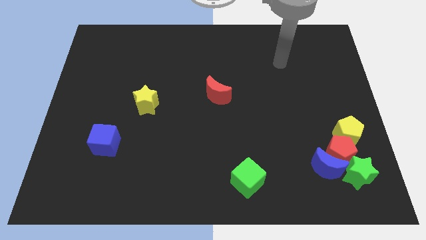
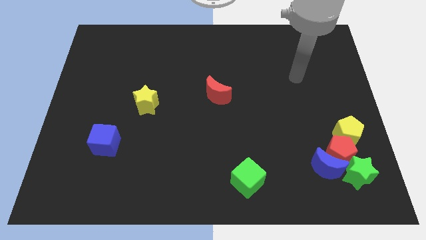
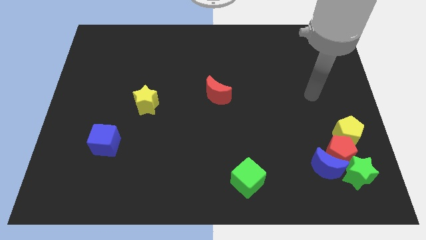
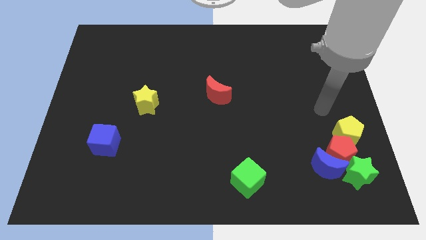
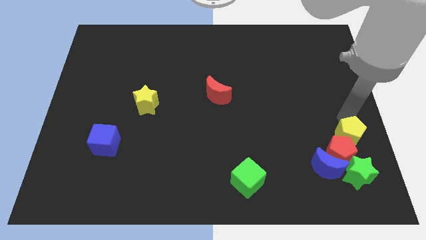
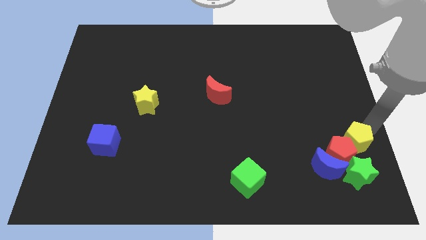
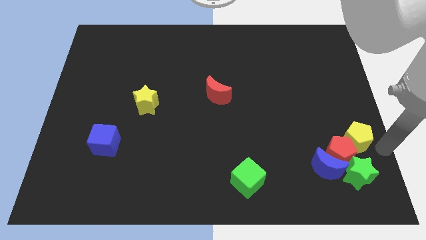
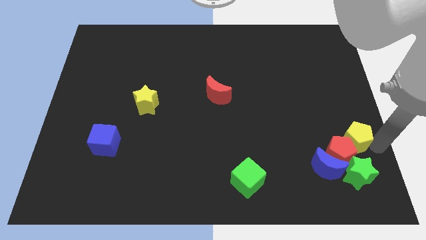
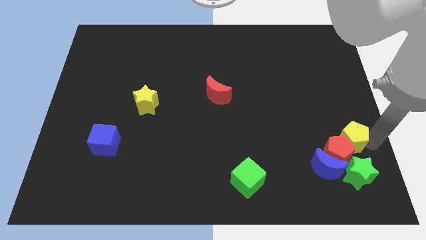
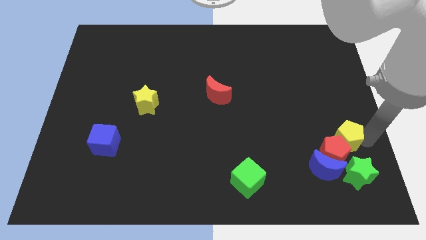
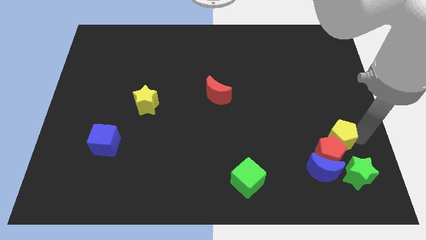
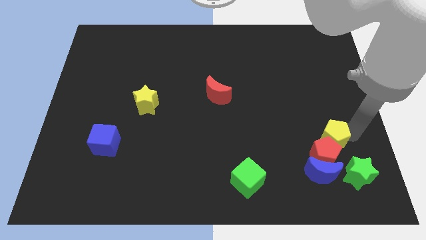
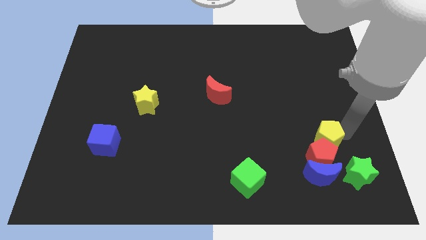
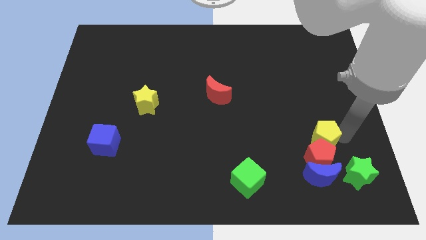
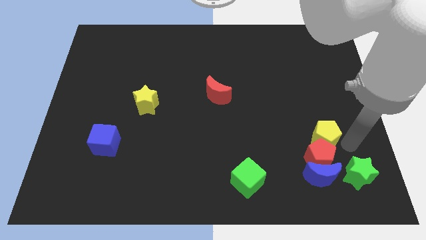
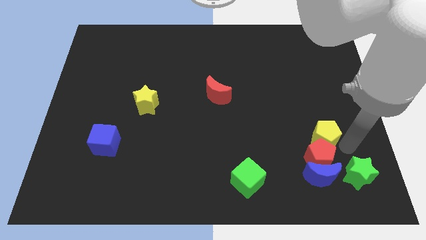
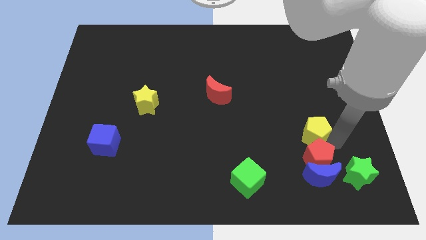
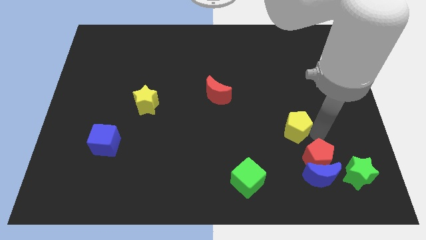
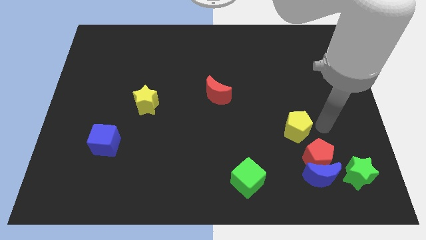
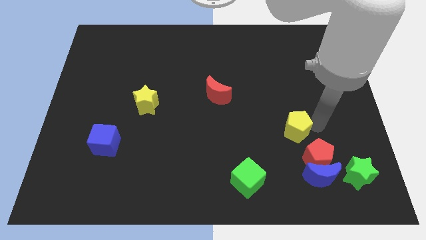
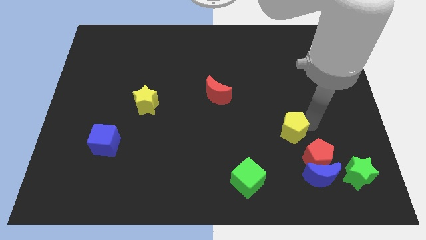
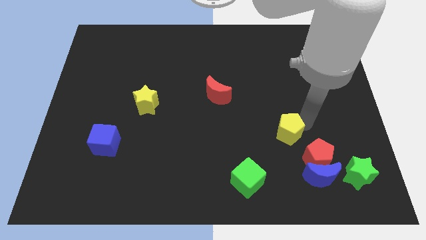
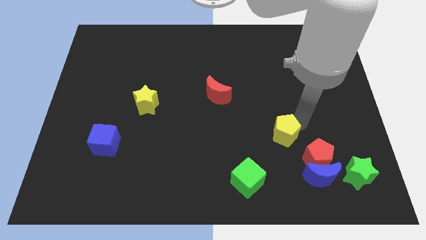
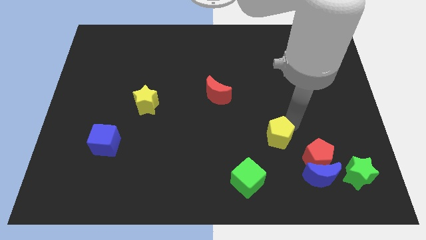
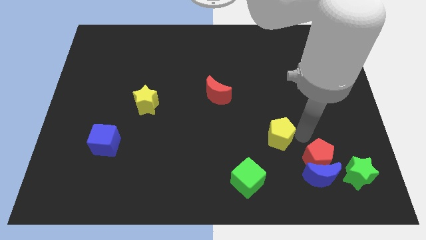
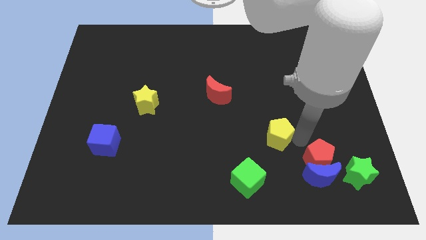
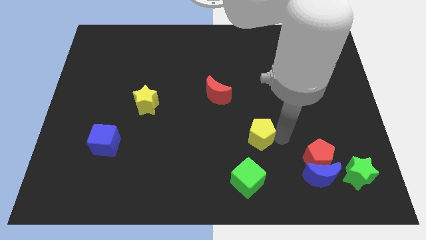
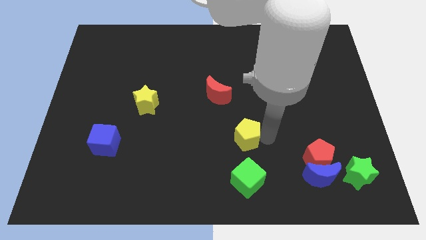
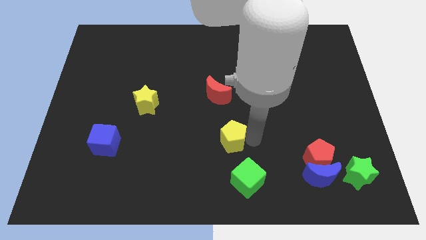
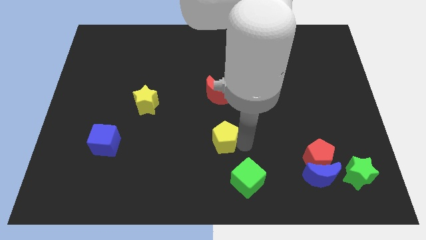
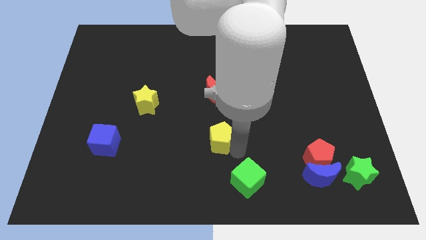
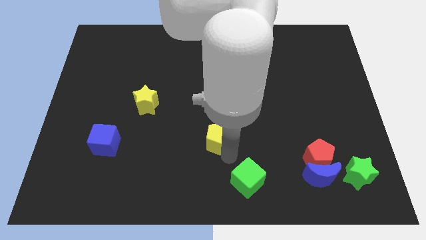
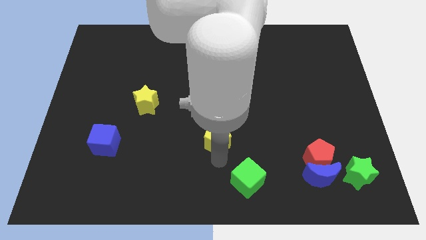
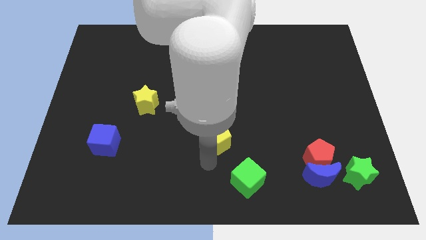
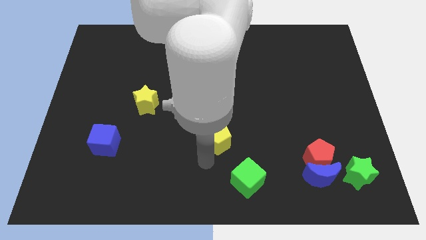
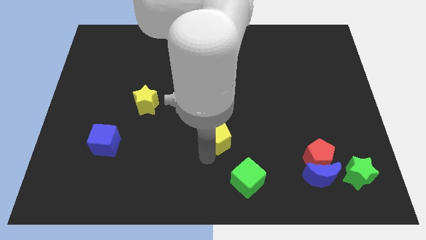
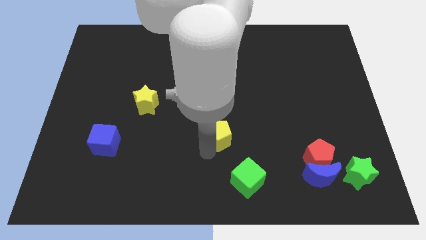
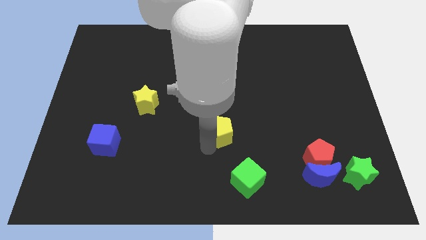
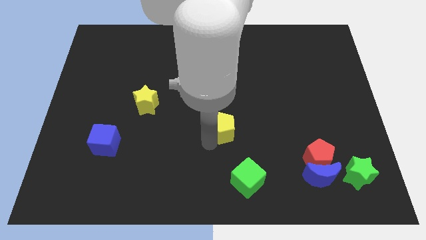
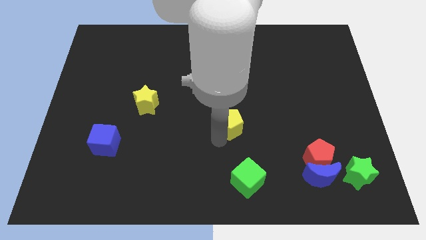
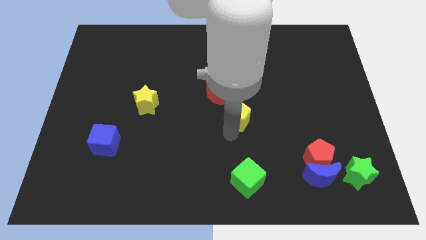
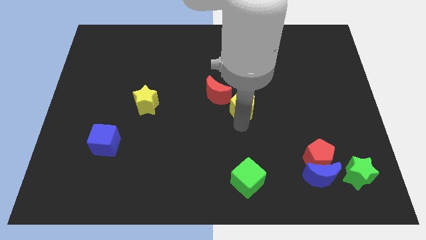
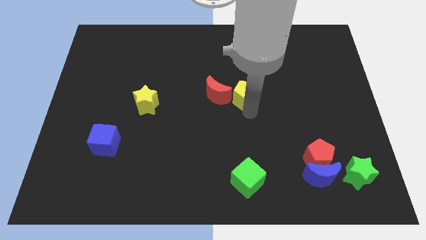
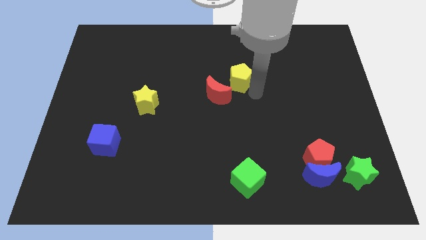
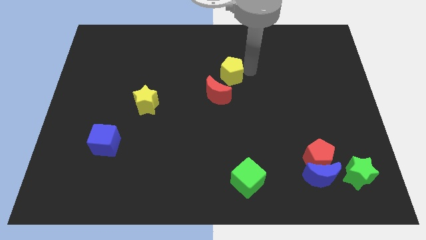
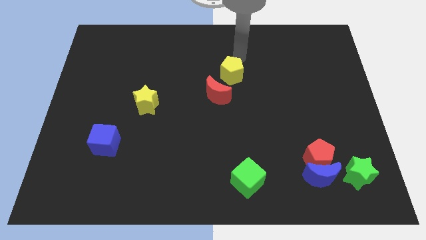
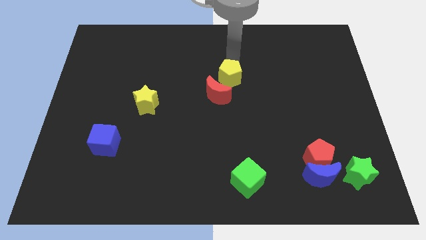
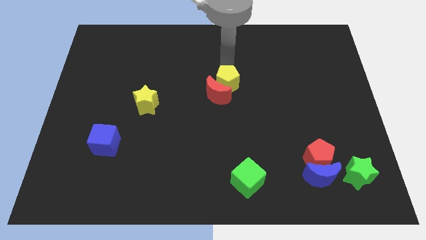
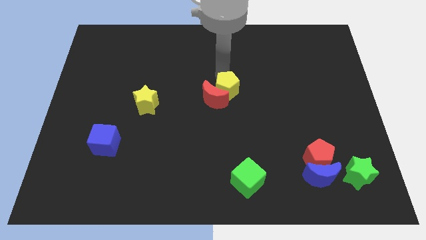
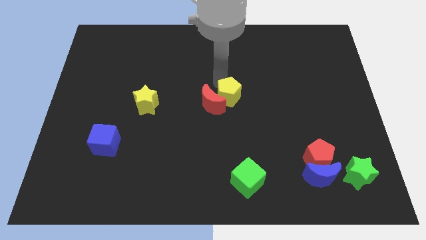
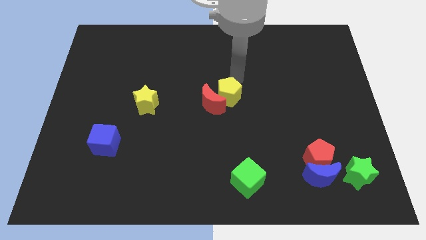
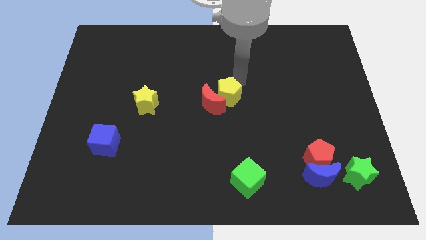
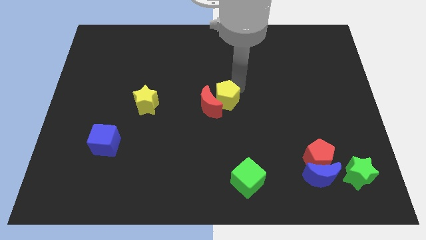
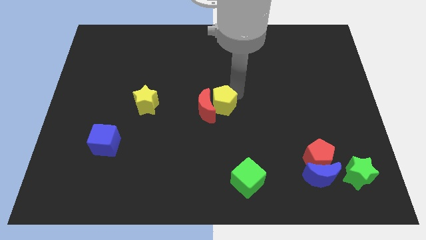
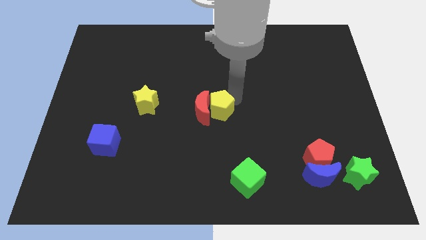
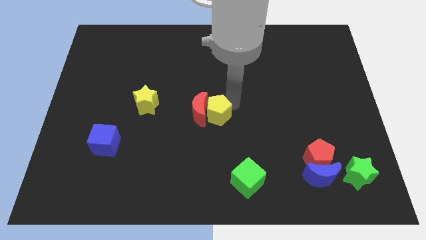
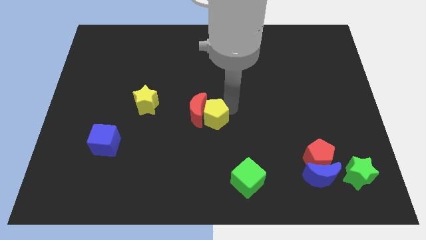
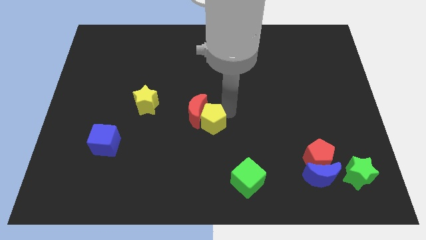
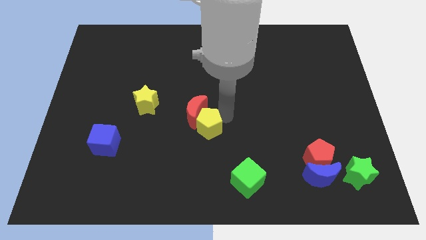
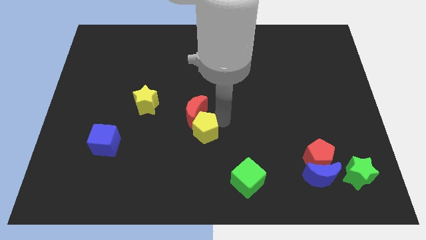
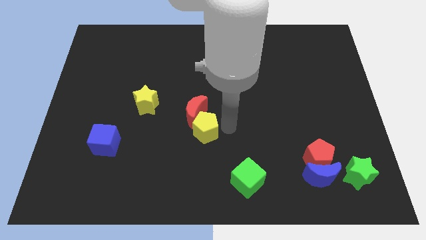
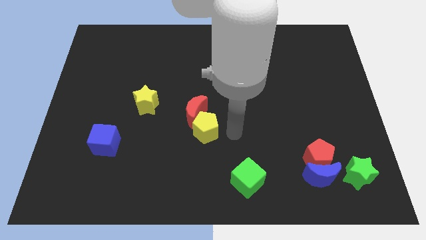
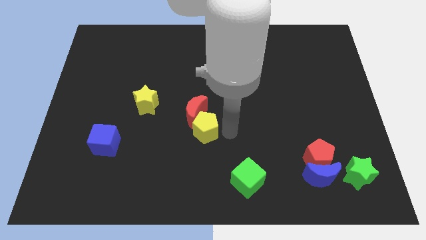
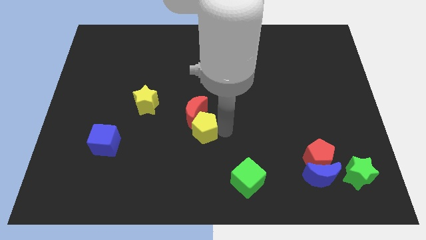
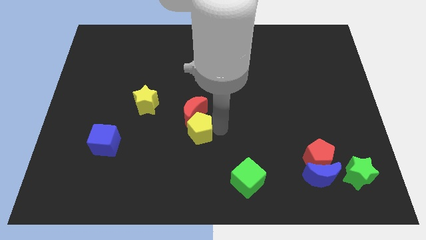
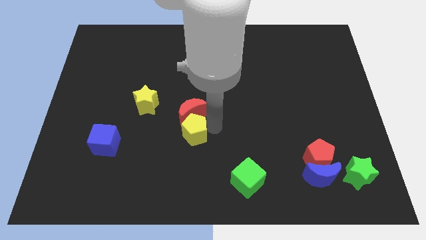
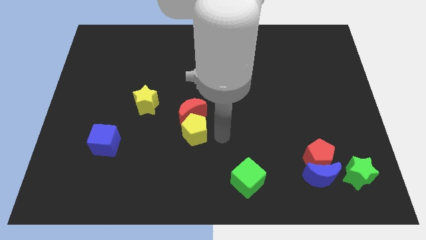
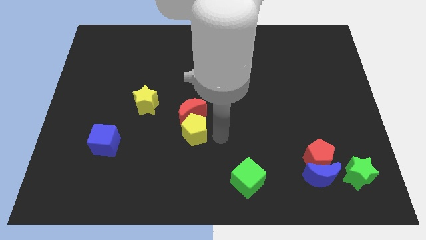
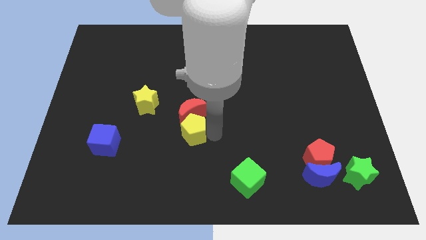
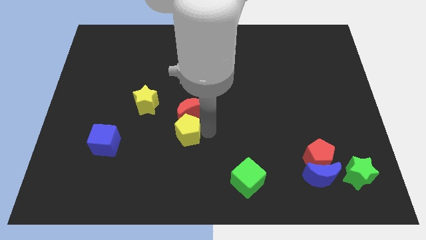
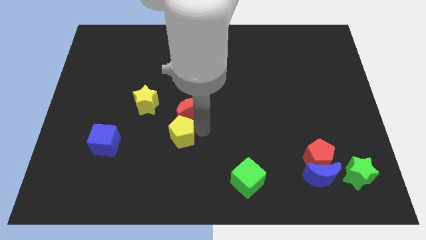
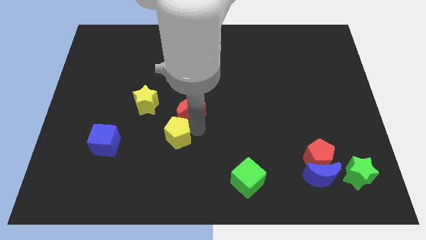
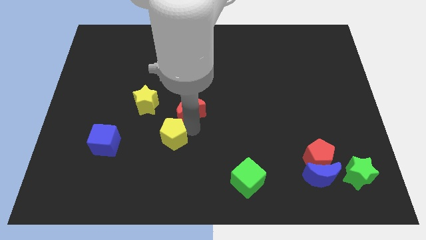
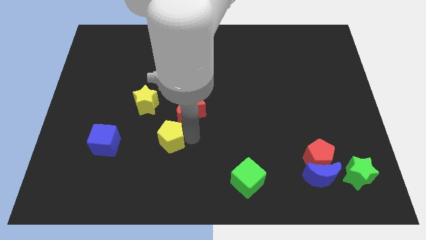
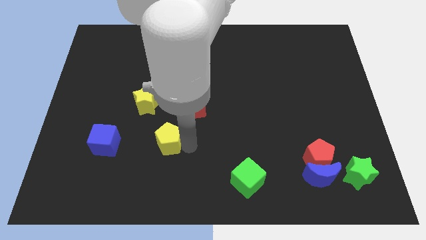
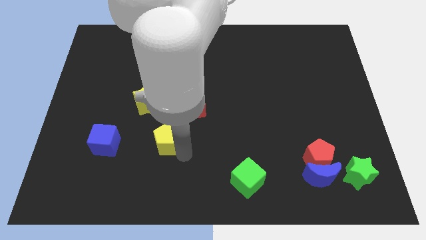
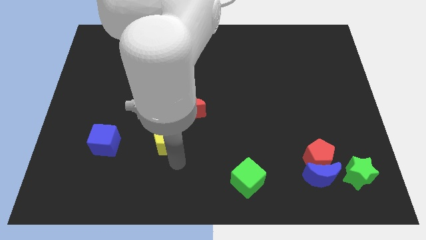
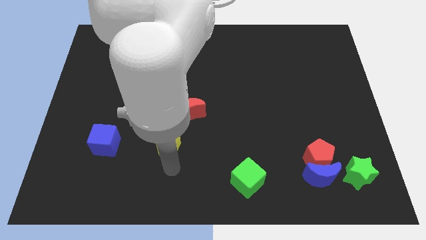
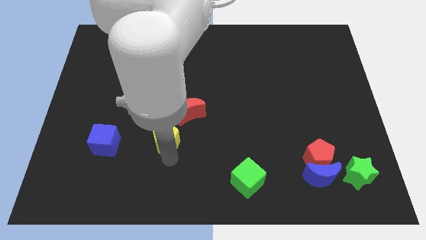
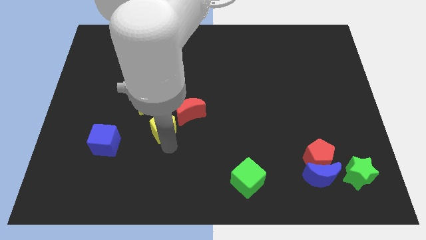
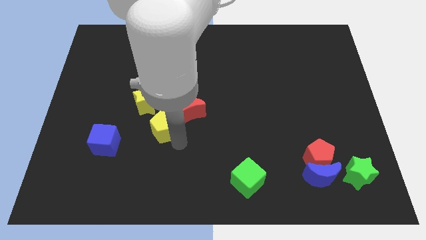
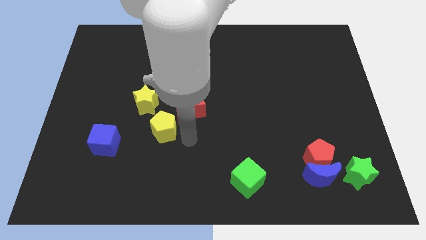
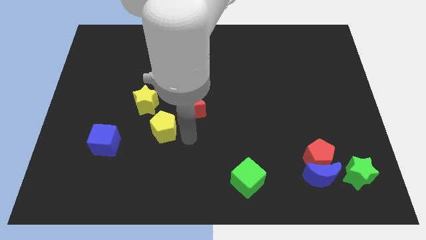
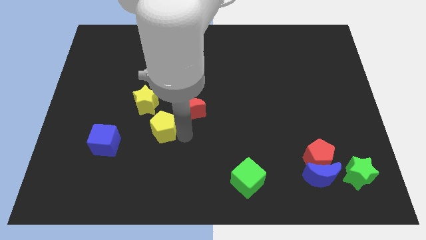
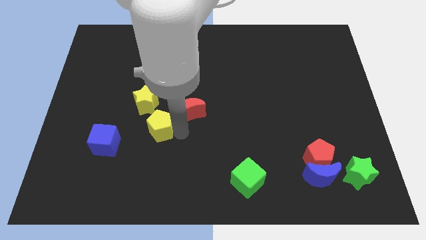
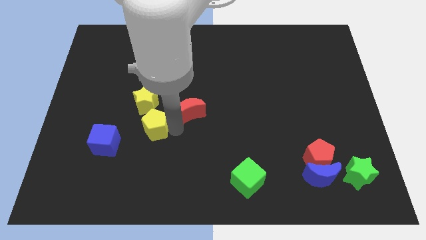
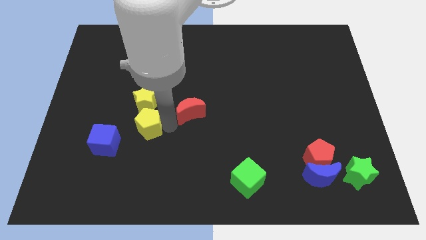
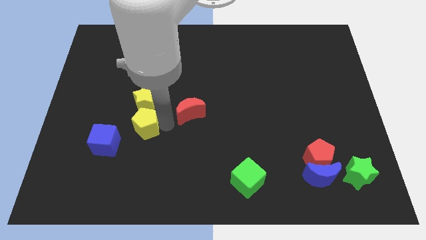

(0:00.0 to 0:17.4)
push the yellow pentagon to the bottom left side of the yellow star
